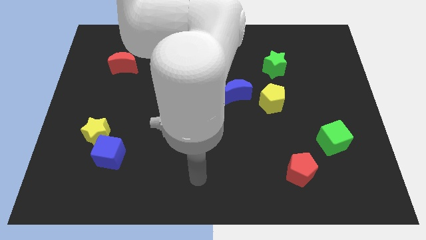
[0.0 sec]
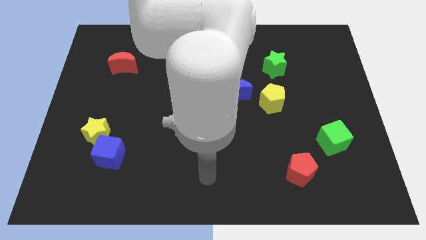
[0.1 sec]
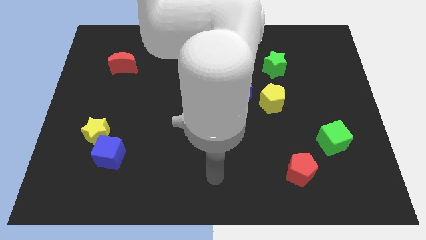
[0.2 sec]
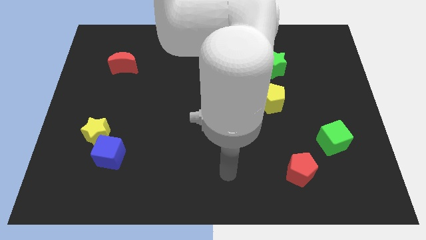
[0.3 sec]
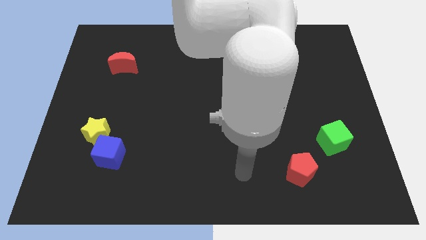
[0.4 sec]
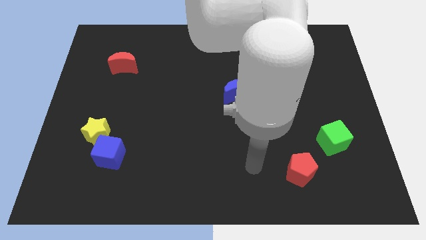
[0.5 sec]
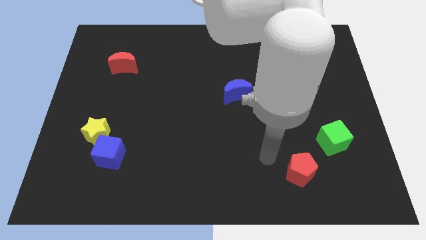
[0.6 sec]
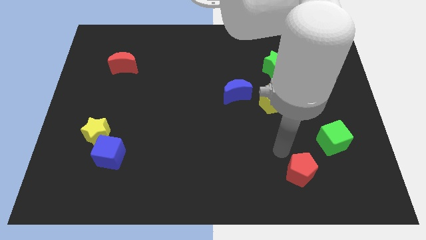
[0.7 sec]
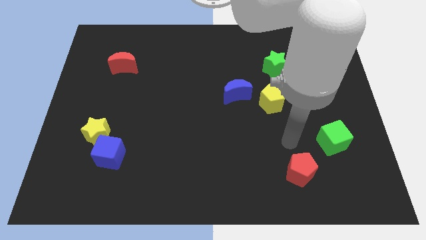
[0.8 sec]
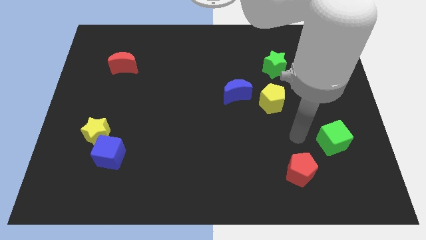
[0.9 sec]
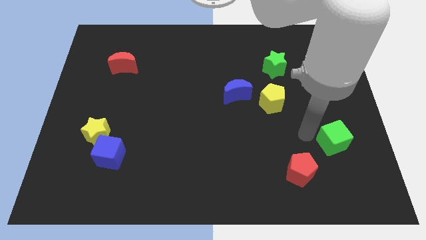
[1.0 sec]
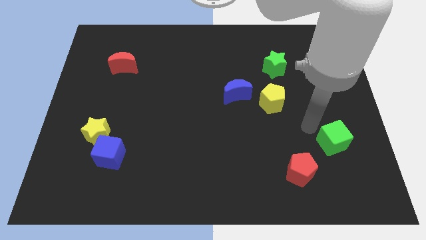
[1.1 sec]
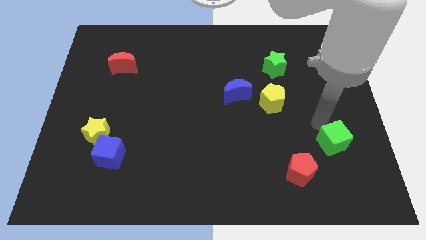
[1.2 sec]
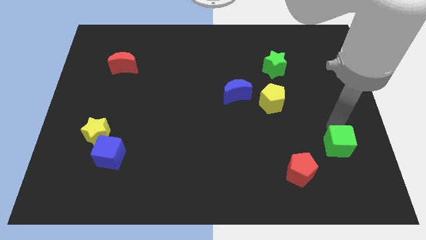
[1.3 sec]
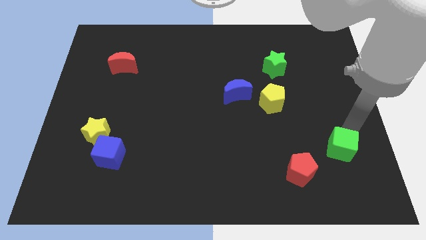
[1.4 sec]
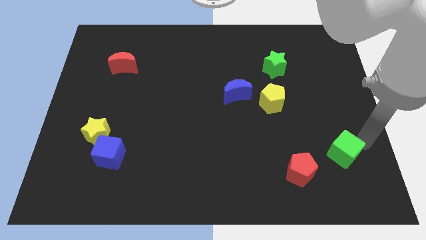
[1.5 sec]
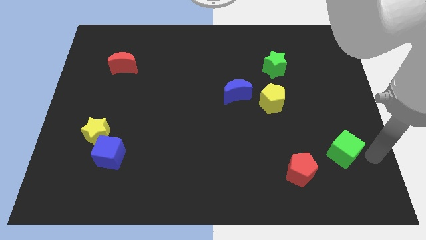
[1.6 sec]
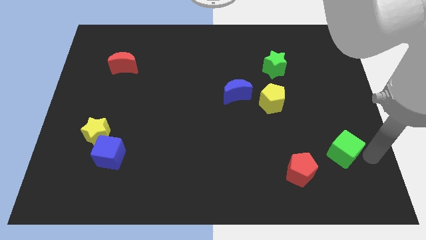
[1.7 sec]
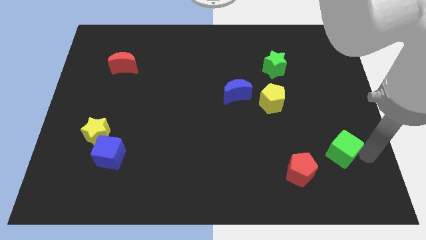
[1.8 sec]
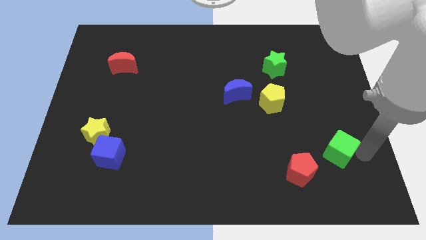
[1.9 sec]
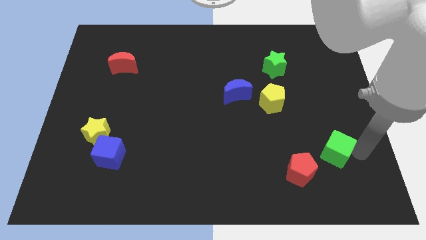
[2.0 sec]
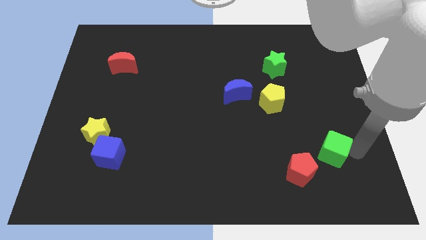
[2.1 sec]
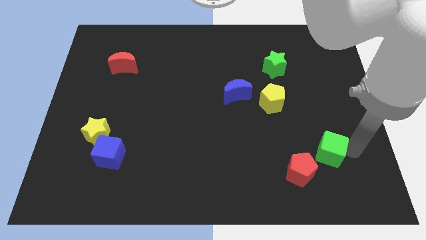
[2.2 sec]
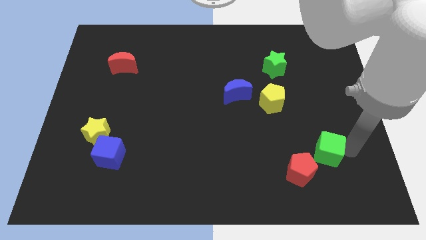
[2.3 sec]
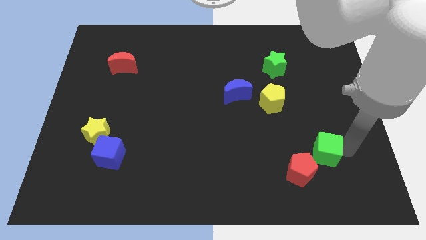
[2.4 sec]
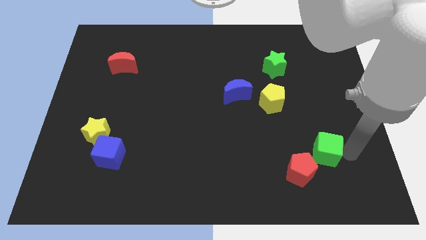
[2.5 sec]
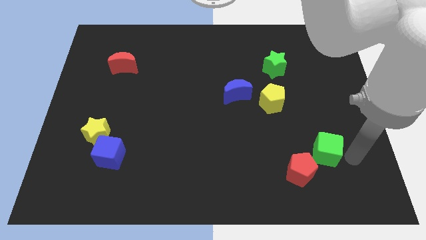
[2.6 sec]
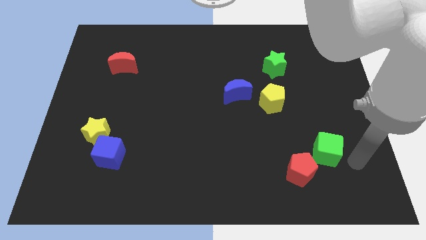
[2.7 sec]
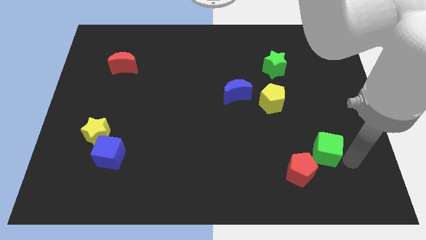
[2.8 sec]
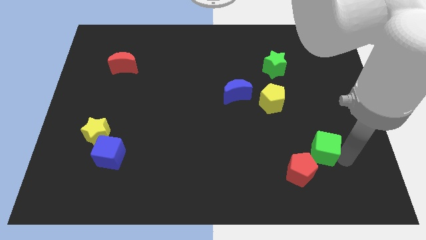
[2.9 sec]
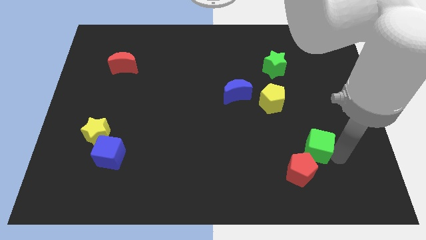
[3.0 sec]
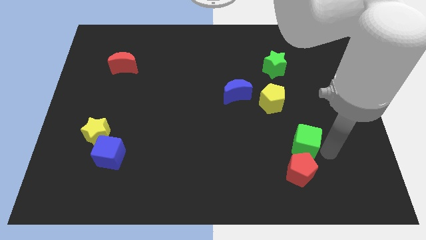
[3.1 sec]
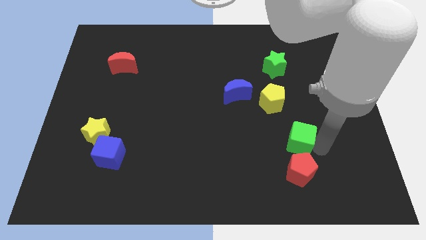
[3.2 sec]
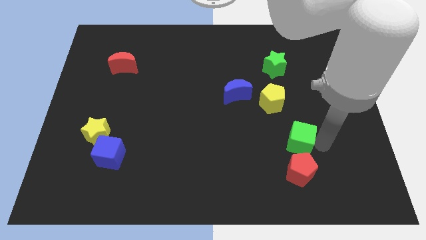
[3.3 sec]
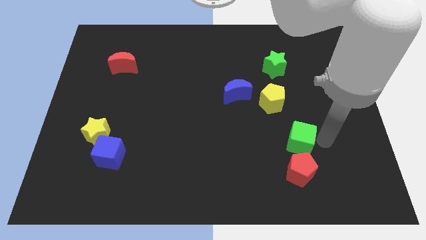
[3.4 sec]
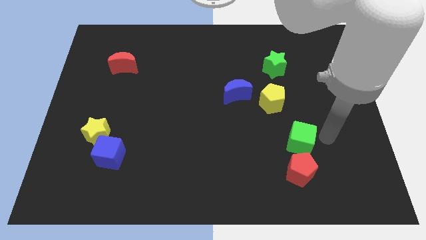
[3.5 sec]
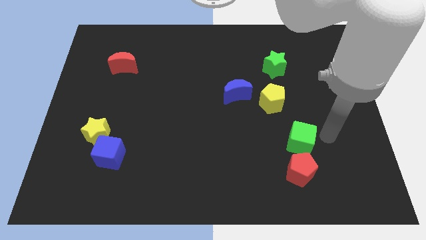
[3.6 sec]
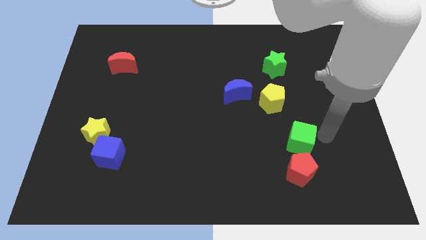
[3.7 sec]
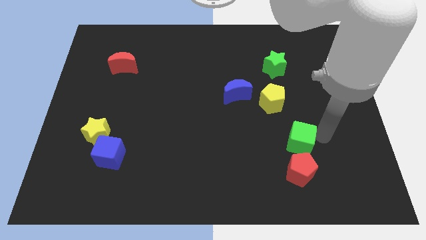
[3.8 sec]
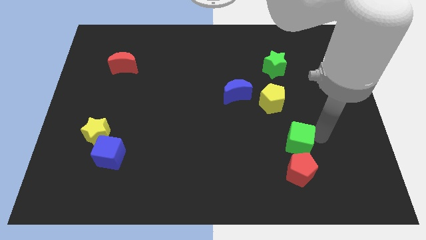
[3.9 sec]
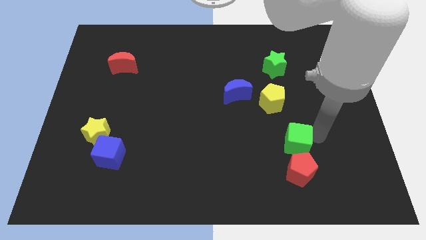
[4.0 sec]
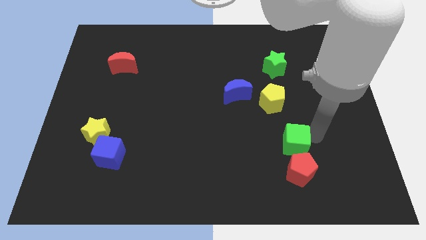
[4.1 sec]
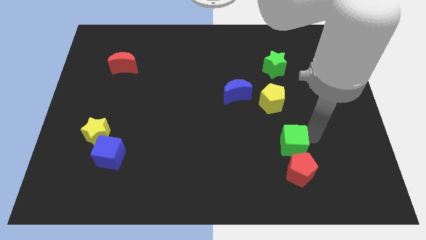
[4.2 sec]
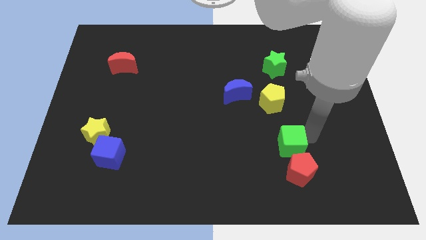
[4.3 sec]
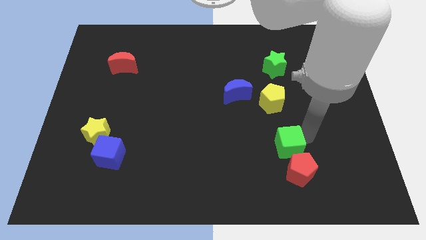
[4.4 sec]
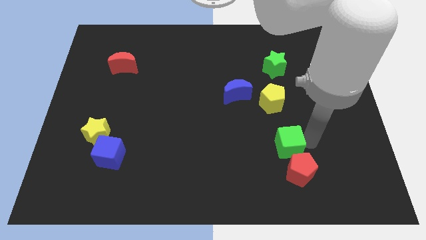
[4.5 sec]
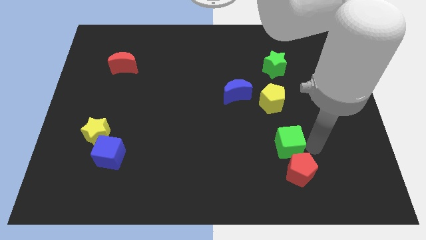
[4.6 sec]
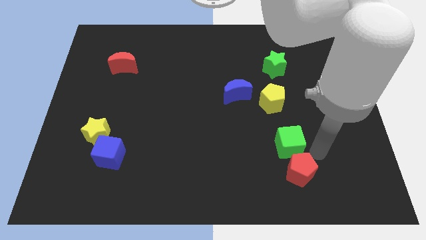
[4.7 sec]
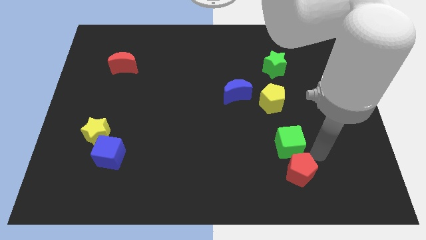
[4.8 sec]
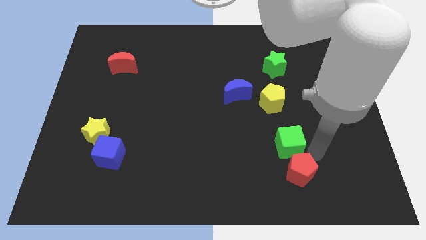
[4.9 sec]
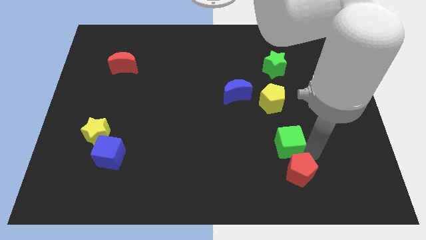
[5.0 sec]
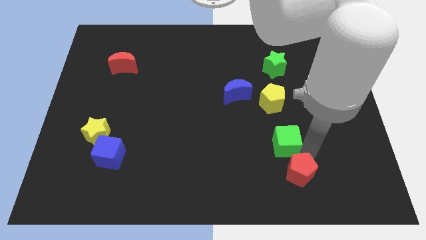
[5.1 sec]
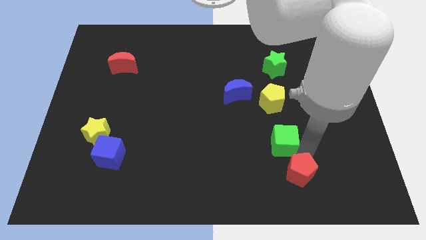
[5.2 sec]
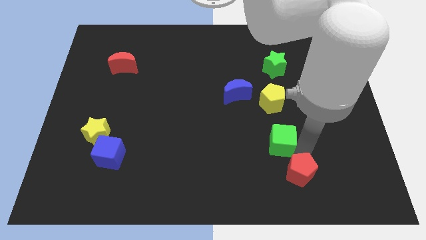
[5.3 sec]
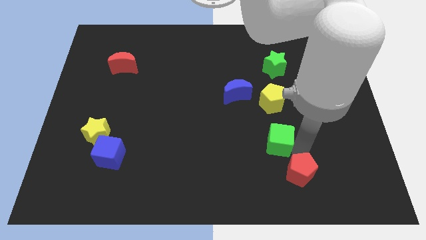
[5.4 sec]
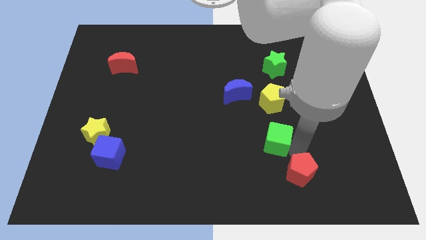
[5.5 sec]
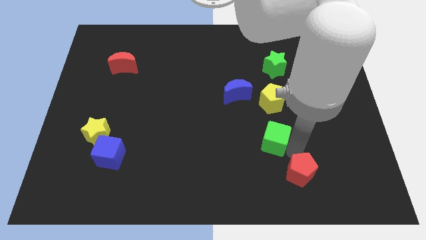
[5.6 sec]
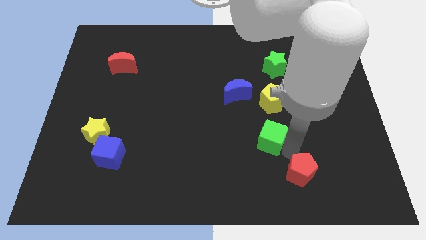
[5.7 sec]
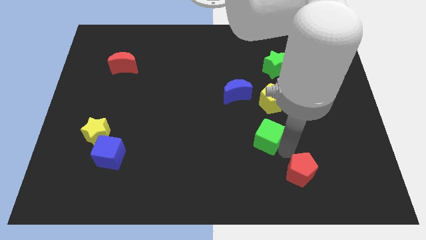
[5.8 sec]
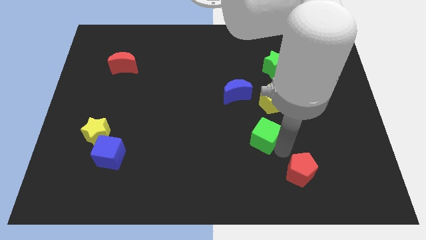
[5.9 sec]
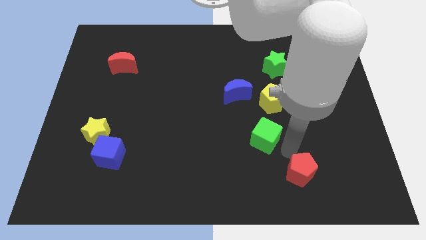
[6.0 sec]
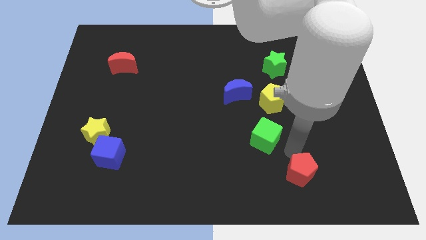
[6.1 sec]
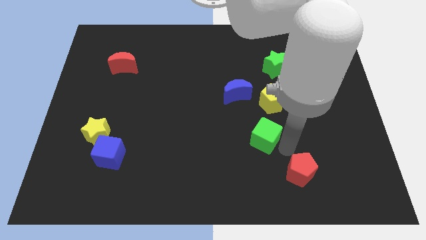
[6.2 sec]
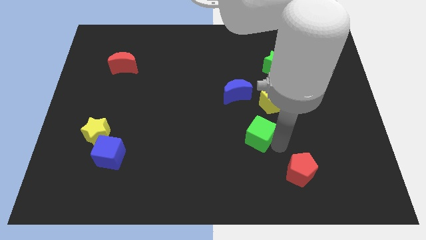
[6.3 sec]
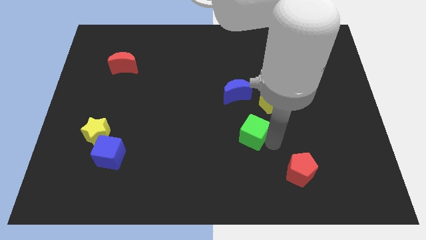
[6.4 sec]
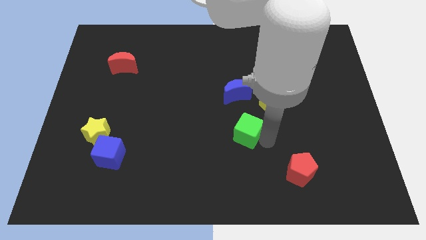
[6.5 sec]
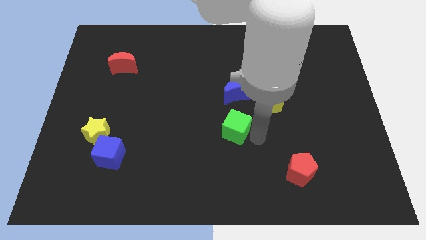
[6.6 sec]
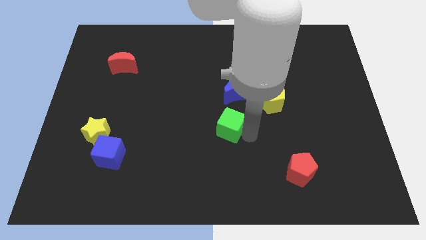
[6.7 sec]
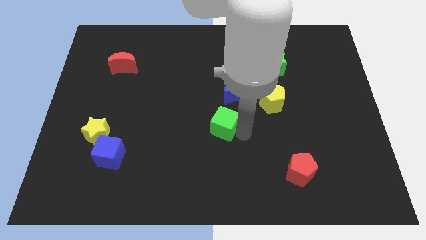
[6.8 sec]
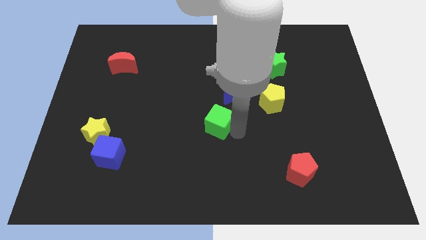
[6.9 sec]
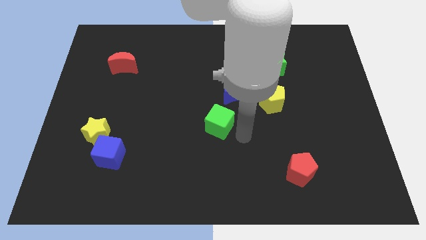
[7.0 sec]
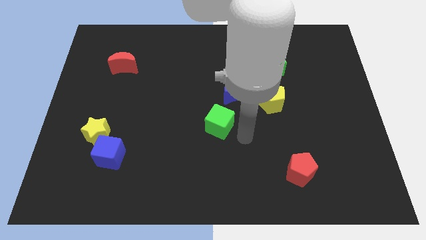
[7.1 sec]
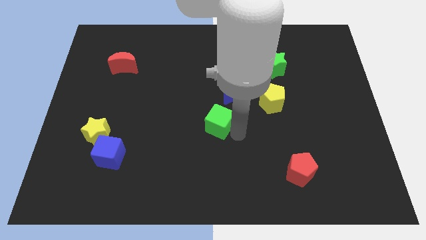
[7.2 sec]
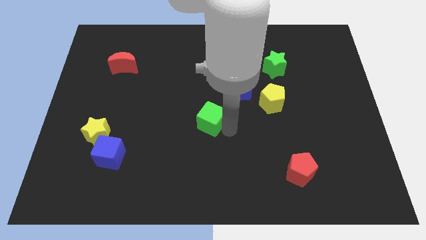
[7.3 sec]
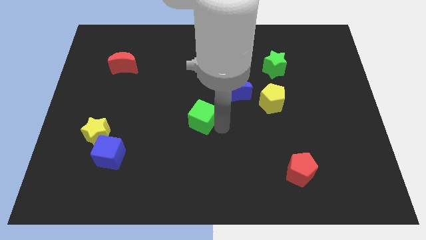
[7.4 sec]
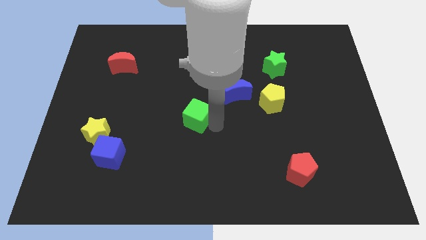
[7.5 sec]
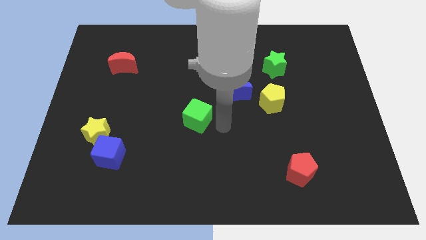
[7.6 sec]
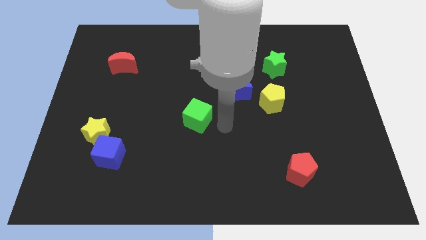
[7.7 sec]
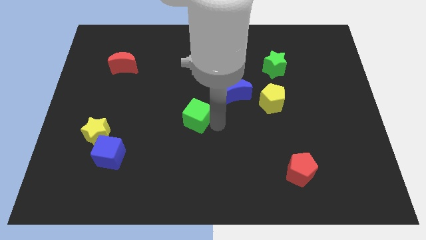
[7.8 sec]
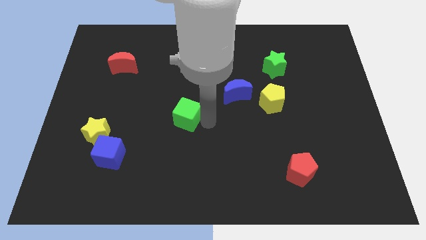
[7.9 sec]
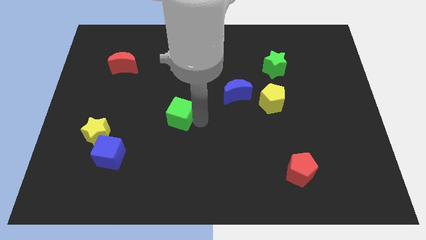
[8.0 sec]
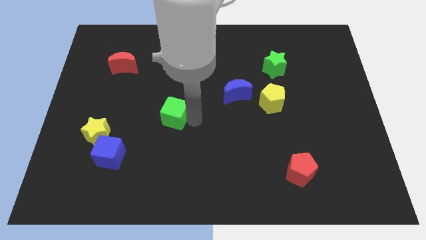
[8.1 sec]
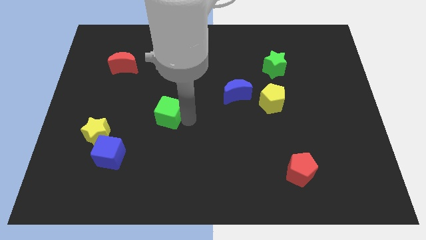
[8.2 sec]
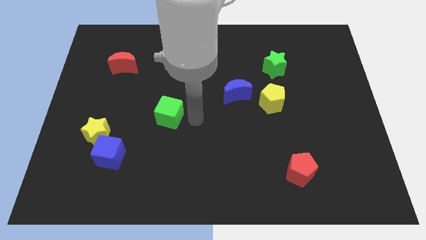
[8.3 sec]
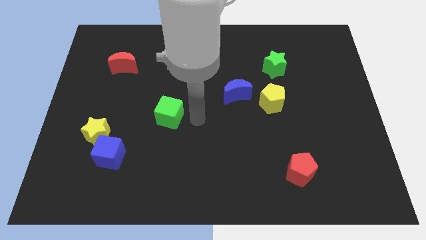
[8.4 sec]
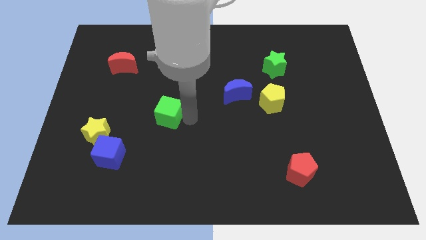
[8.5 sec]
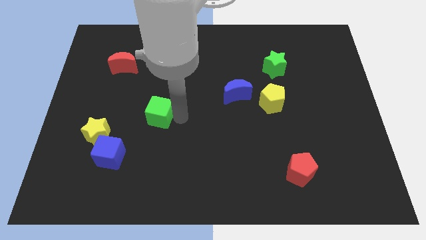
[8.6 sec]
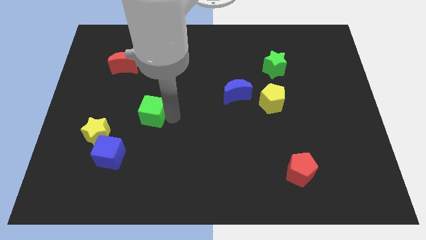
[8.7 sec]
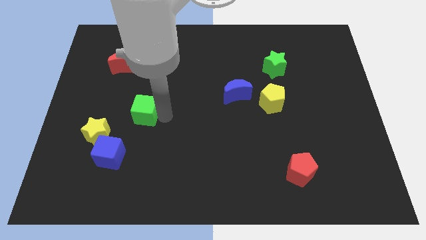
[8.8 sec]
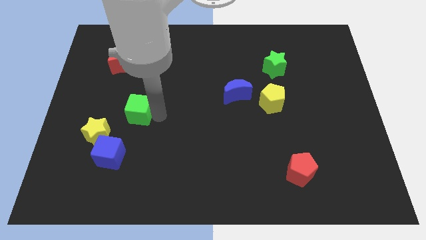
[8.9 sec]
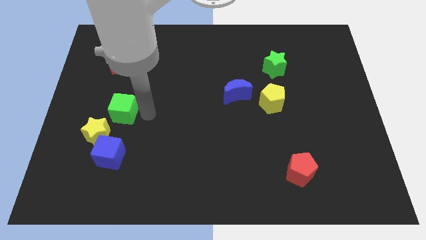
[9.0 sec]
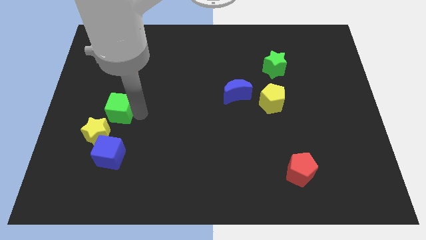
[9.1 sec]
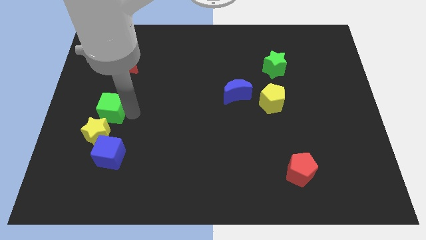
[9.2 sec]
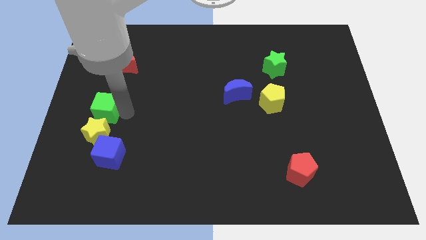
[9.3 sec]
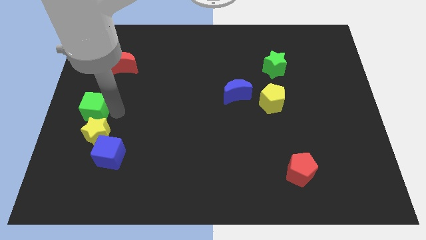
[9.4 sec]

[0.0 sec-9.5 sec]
put the green cube to the left side of the board
